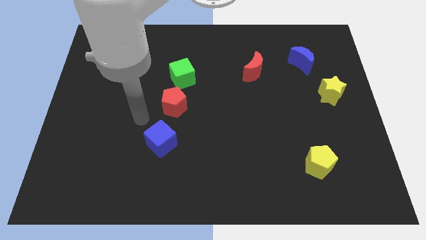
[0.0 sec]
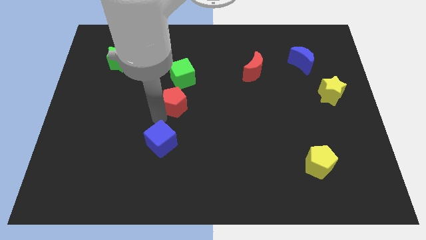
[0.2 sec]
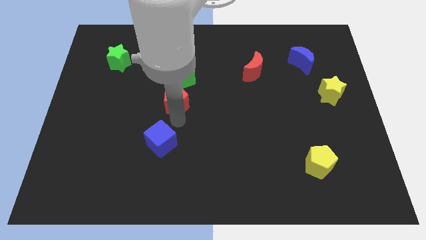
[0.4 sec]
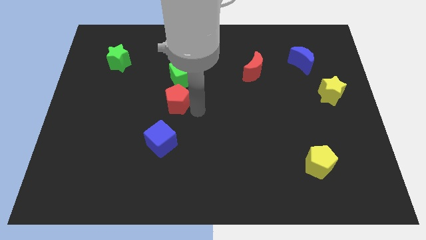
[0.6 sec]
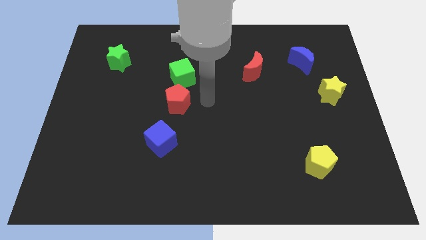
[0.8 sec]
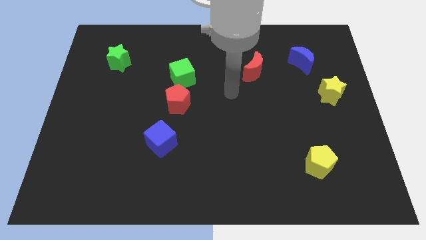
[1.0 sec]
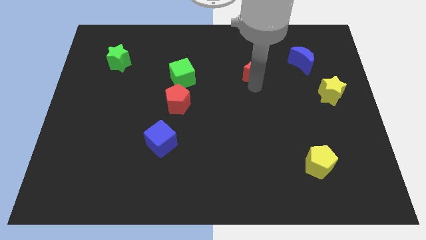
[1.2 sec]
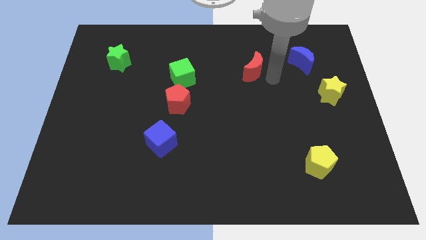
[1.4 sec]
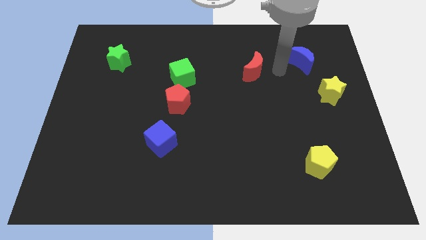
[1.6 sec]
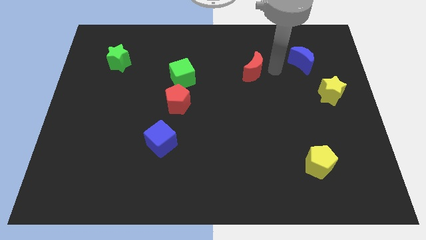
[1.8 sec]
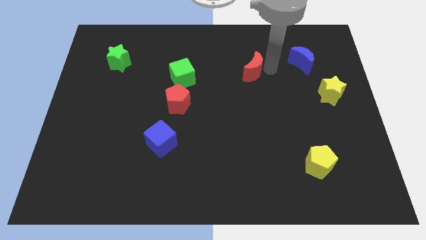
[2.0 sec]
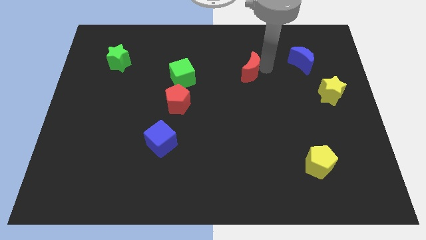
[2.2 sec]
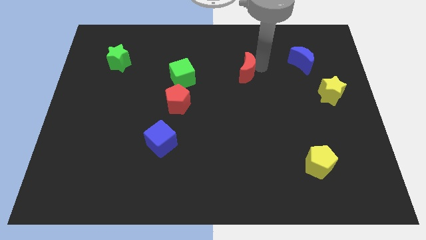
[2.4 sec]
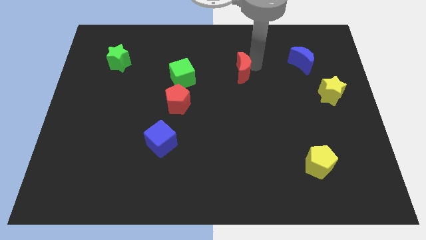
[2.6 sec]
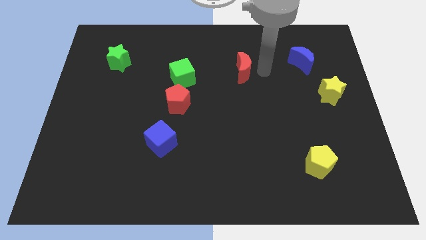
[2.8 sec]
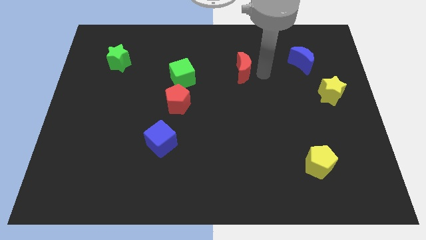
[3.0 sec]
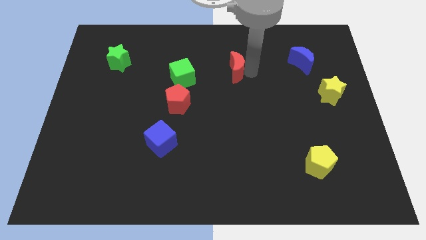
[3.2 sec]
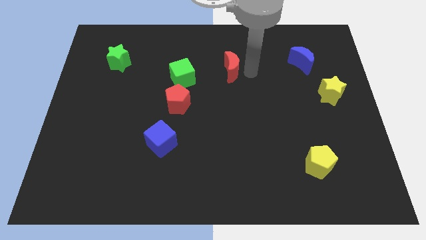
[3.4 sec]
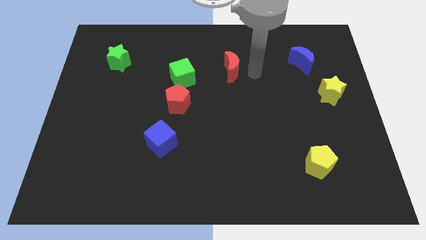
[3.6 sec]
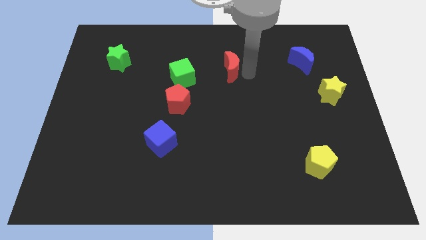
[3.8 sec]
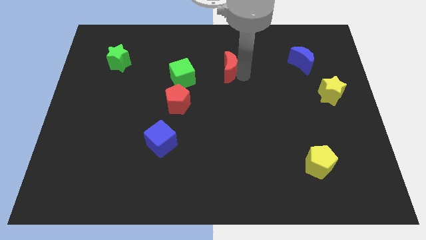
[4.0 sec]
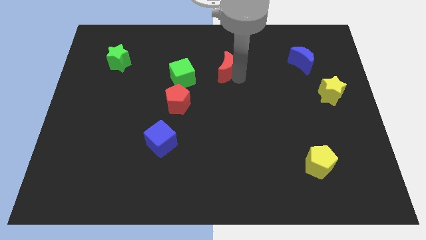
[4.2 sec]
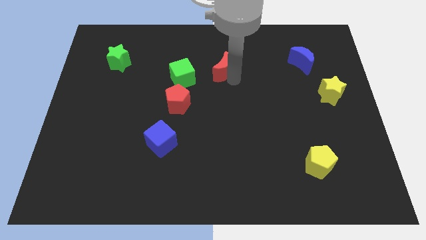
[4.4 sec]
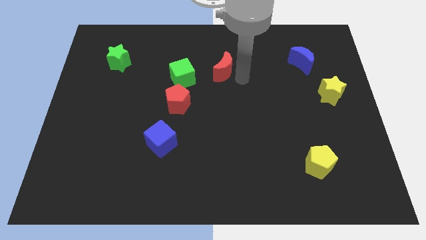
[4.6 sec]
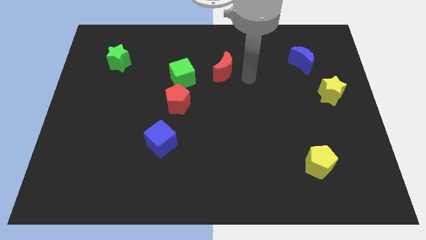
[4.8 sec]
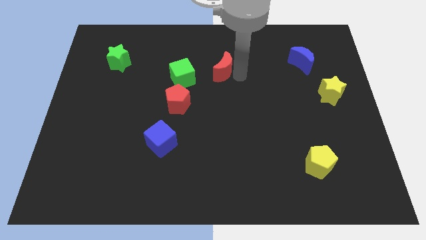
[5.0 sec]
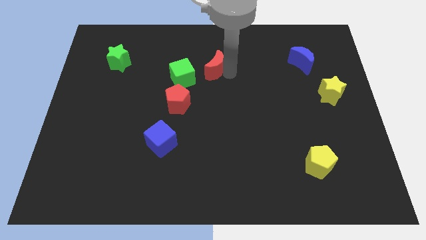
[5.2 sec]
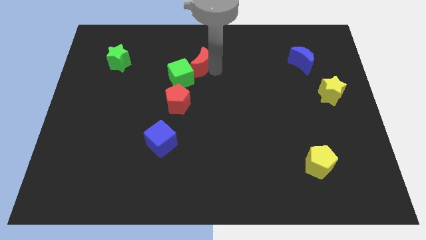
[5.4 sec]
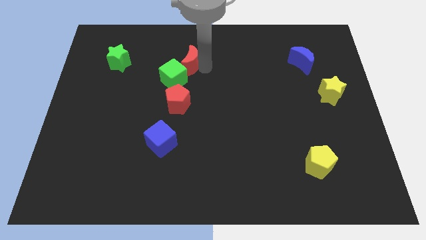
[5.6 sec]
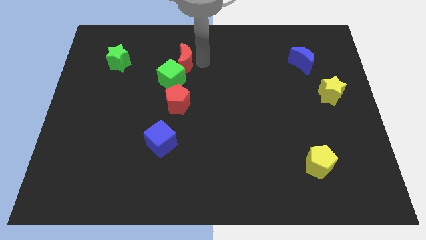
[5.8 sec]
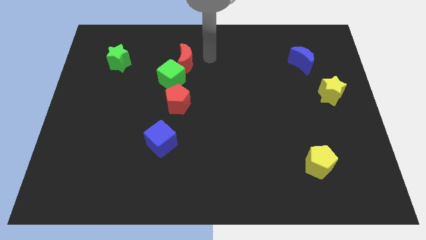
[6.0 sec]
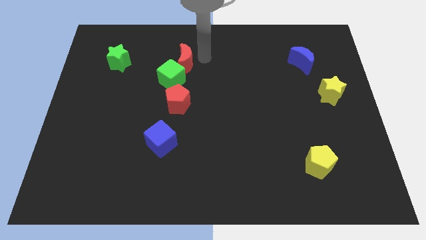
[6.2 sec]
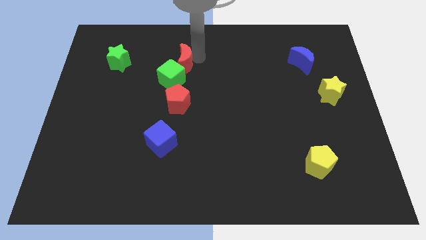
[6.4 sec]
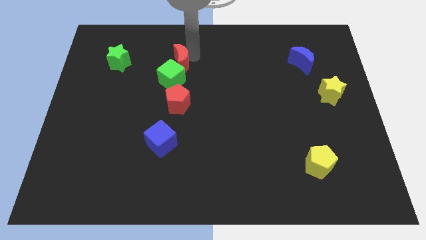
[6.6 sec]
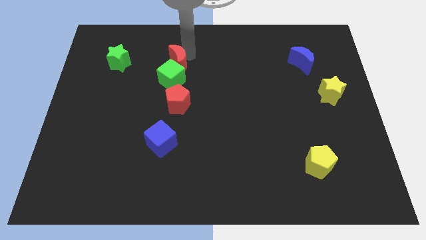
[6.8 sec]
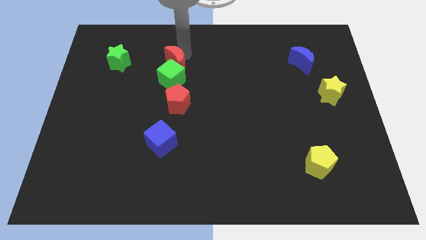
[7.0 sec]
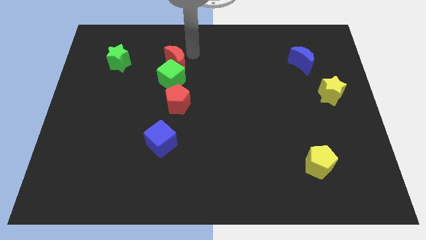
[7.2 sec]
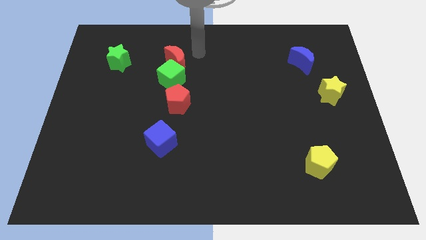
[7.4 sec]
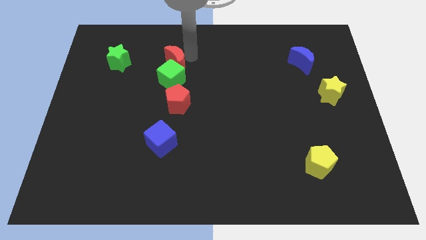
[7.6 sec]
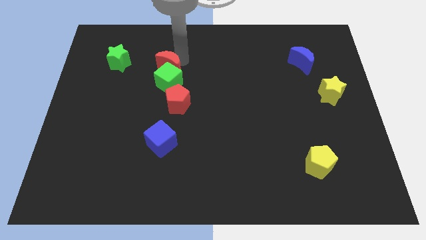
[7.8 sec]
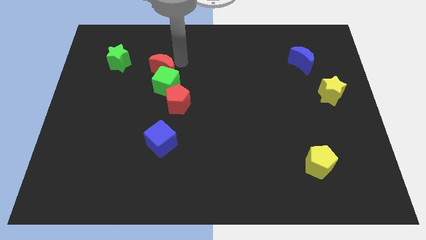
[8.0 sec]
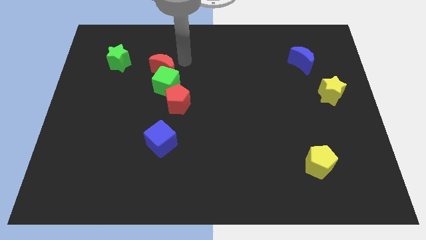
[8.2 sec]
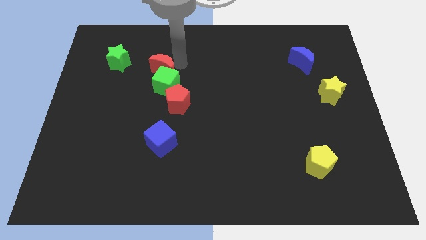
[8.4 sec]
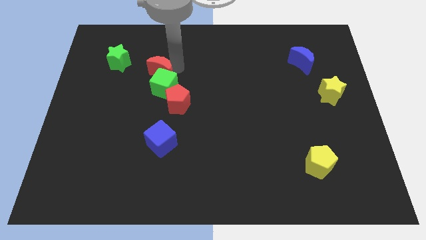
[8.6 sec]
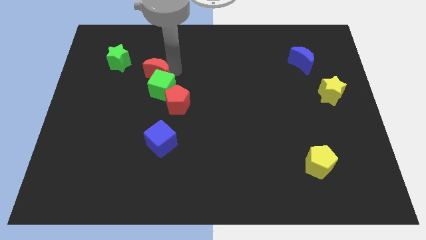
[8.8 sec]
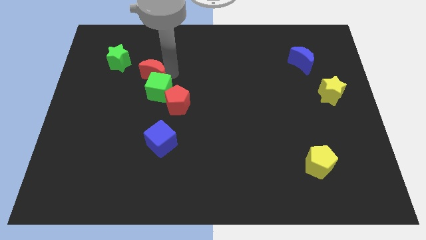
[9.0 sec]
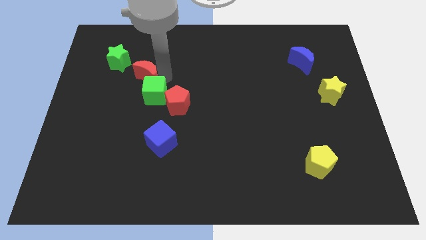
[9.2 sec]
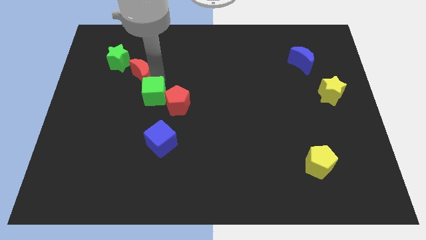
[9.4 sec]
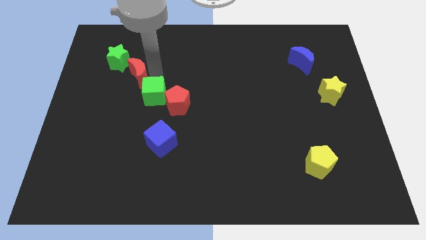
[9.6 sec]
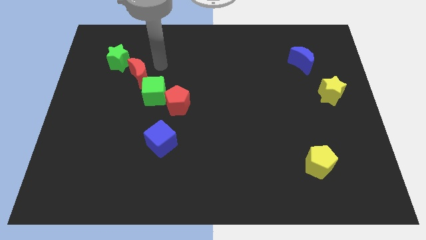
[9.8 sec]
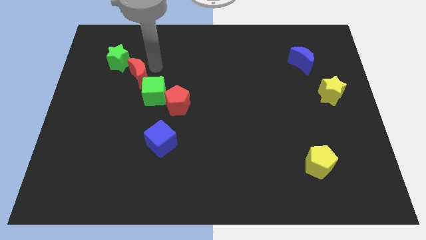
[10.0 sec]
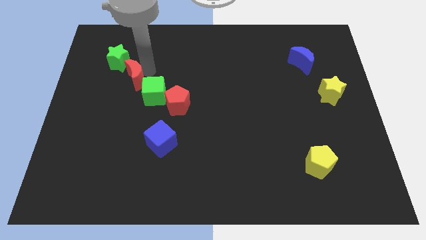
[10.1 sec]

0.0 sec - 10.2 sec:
push the red moon to the bottom of the green star

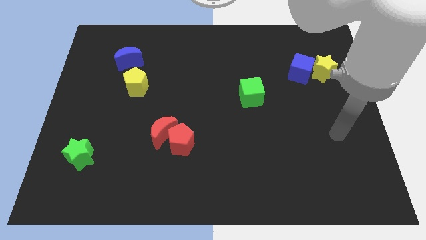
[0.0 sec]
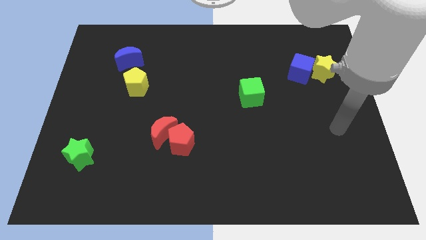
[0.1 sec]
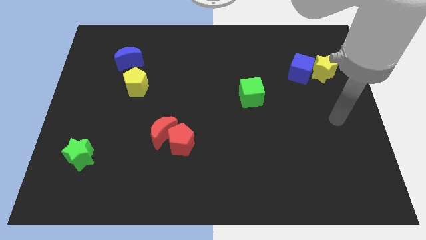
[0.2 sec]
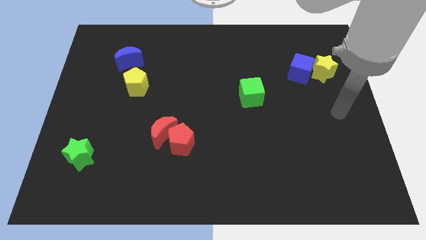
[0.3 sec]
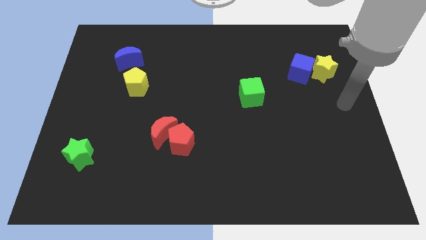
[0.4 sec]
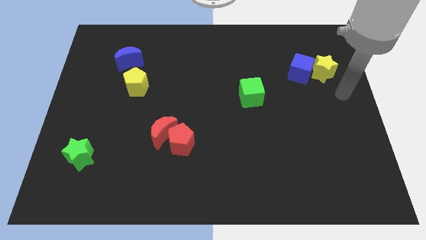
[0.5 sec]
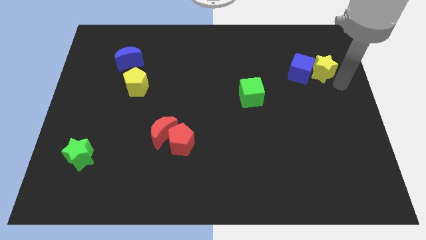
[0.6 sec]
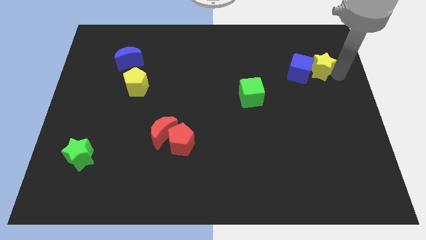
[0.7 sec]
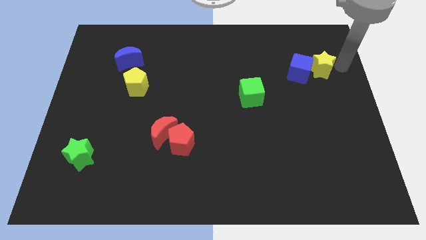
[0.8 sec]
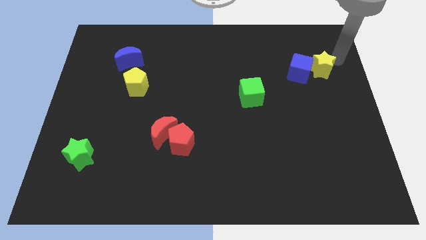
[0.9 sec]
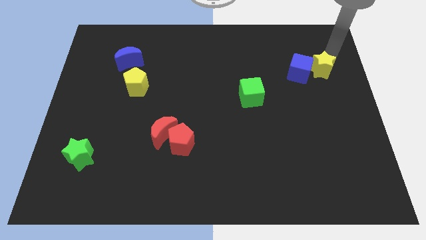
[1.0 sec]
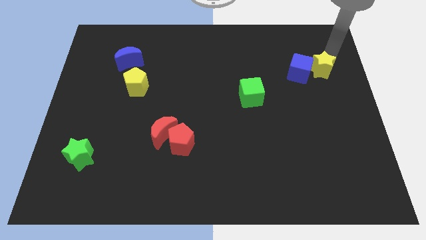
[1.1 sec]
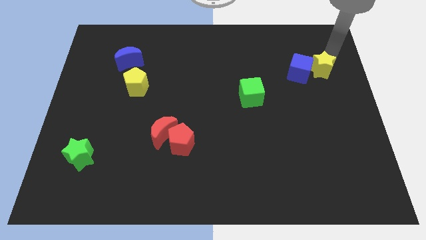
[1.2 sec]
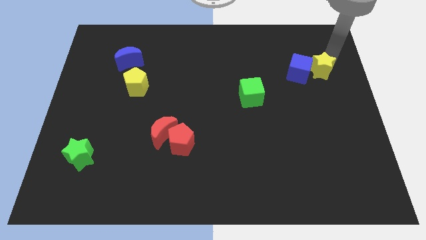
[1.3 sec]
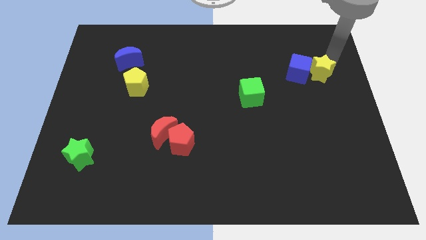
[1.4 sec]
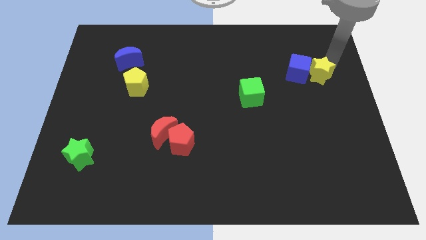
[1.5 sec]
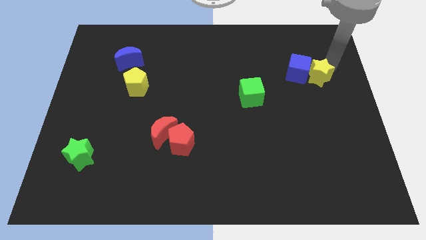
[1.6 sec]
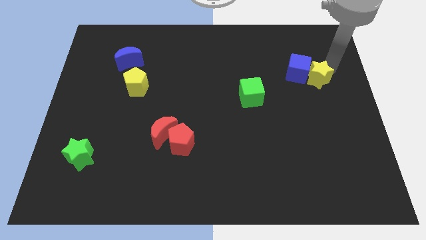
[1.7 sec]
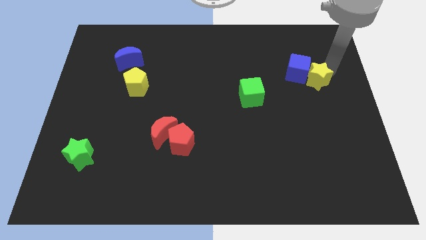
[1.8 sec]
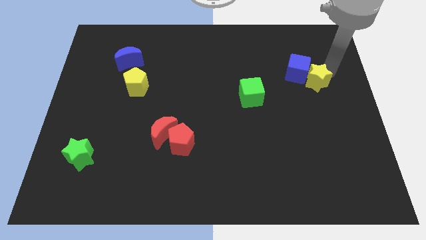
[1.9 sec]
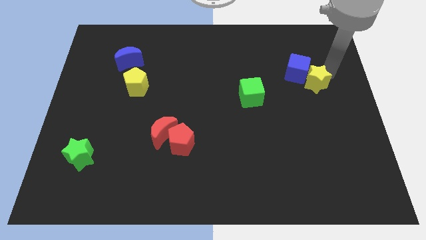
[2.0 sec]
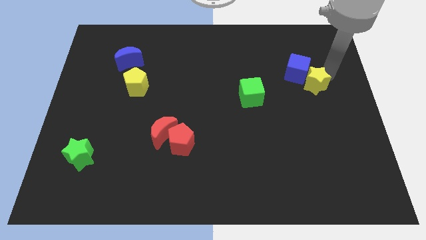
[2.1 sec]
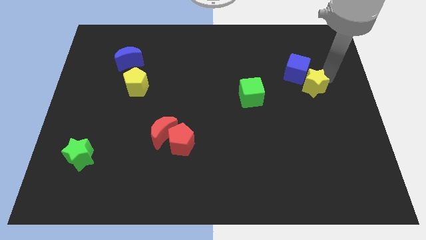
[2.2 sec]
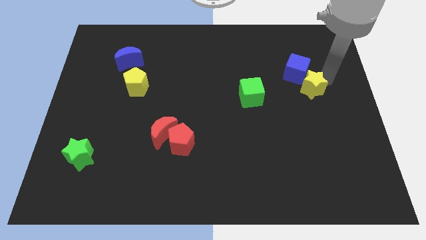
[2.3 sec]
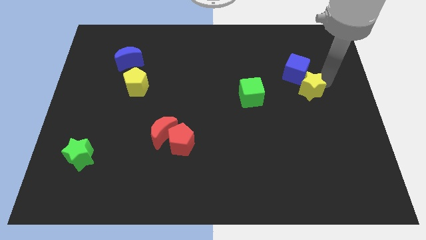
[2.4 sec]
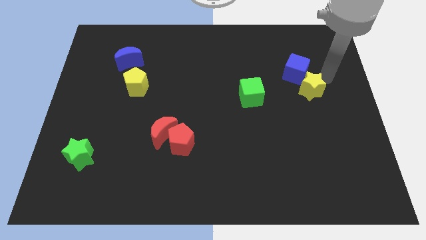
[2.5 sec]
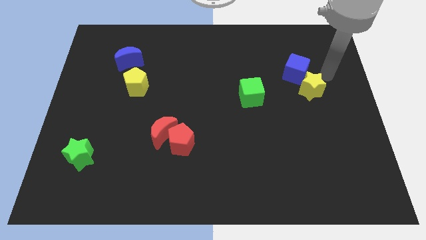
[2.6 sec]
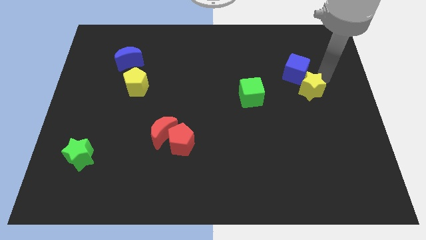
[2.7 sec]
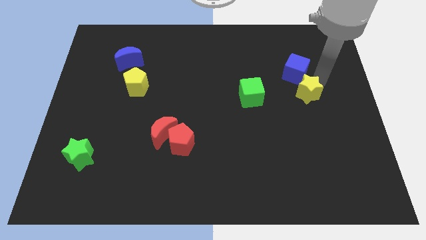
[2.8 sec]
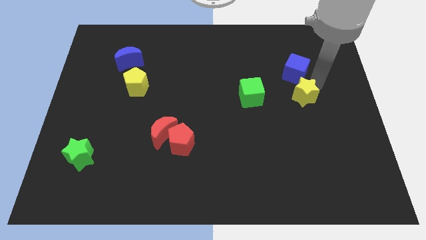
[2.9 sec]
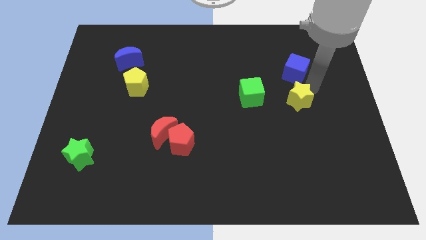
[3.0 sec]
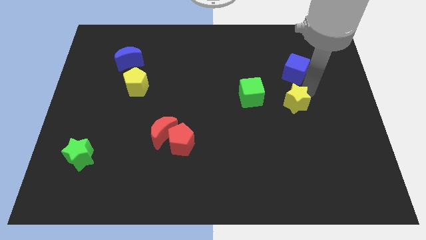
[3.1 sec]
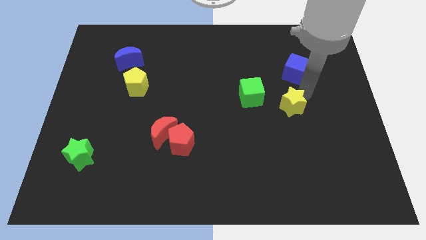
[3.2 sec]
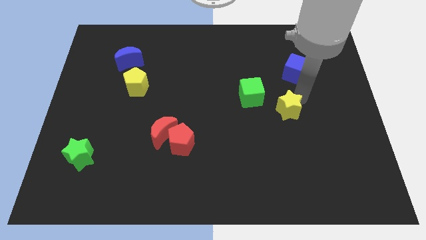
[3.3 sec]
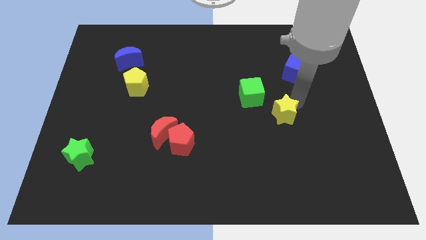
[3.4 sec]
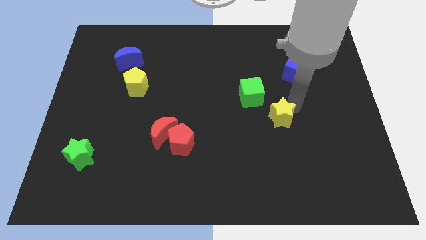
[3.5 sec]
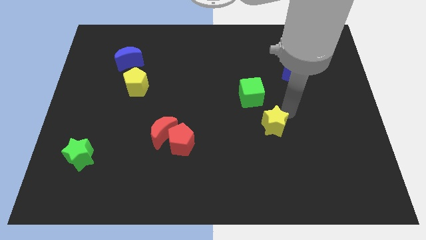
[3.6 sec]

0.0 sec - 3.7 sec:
put the yellow star below the green cube
